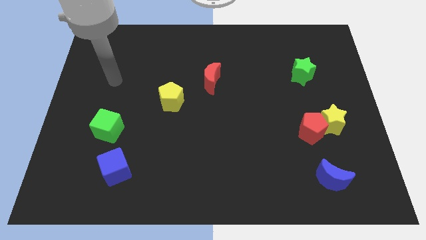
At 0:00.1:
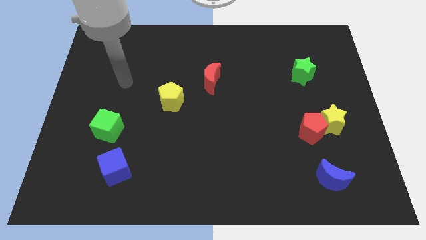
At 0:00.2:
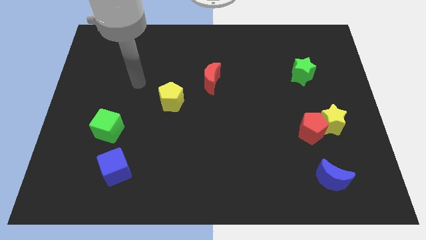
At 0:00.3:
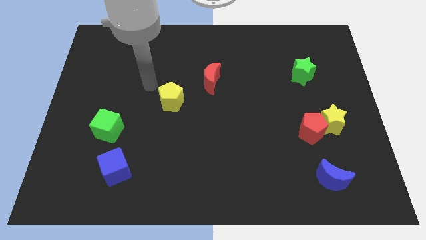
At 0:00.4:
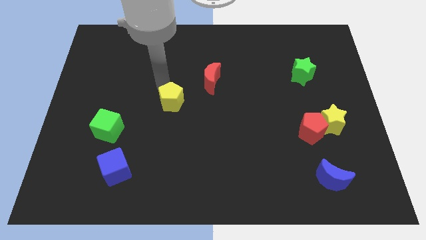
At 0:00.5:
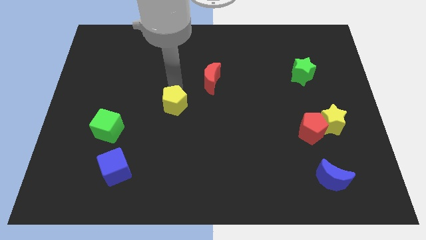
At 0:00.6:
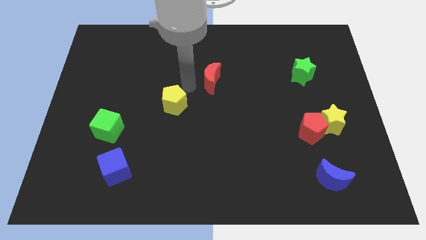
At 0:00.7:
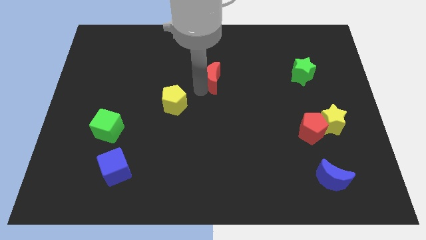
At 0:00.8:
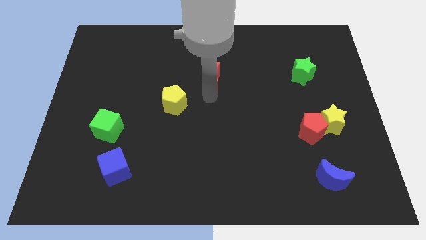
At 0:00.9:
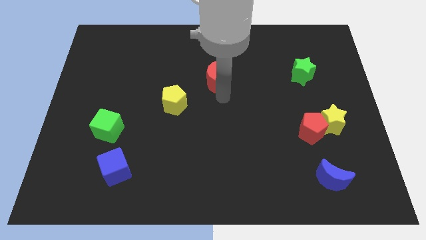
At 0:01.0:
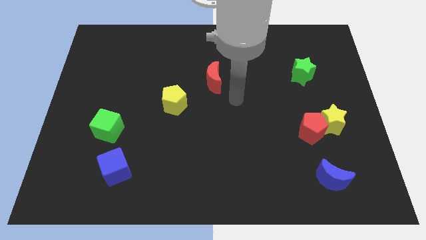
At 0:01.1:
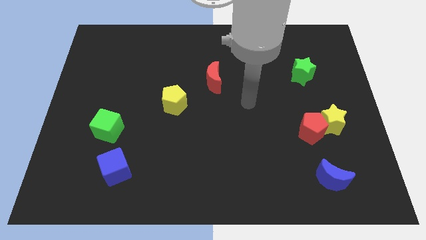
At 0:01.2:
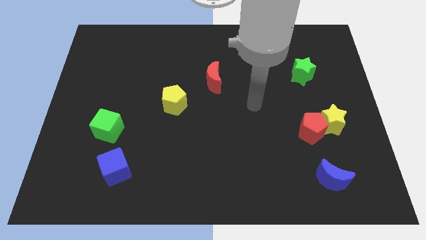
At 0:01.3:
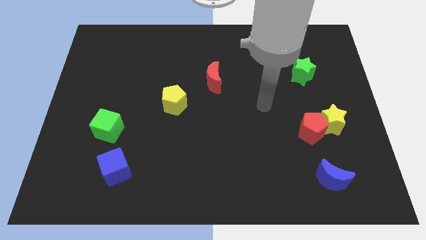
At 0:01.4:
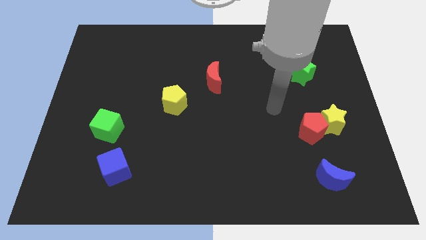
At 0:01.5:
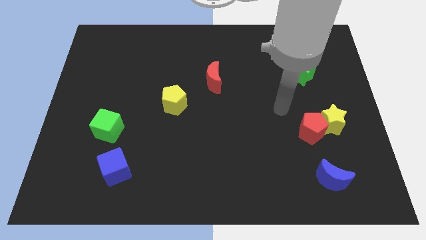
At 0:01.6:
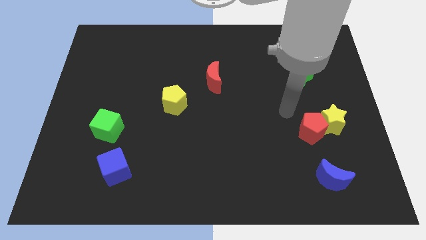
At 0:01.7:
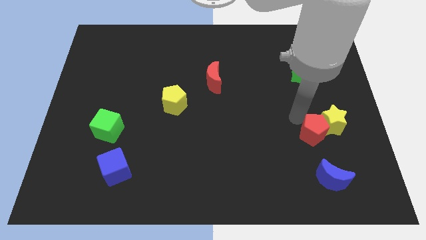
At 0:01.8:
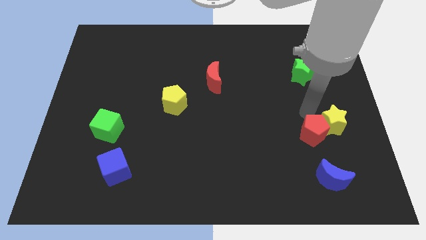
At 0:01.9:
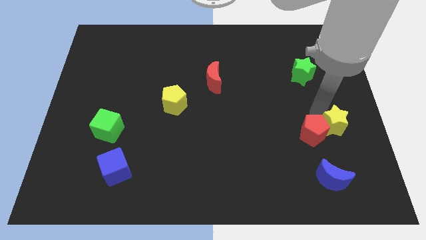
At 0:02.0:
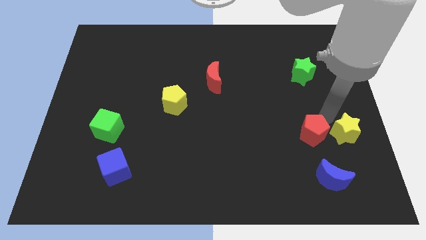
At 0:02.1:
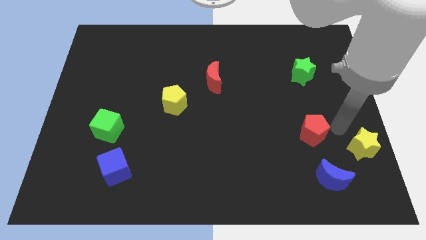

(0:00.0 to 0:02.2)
separate the red pentagon from the yellow star

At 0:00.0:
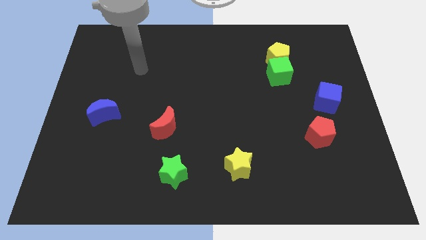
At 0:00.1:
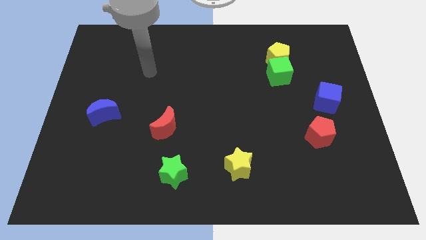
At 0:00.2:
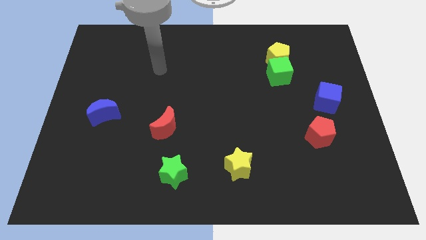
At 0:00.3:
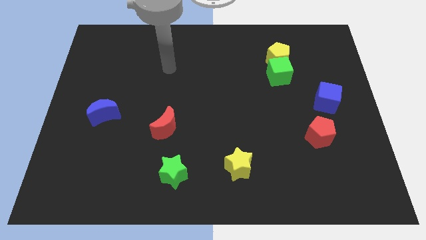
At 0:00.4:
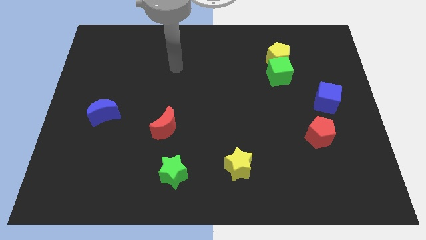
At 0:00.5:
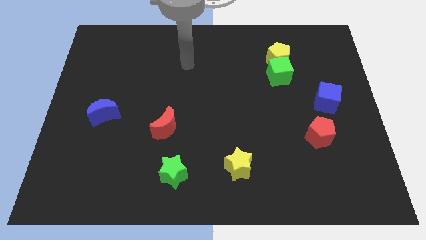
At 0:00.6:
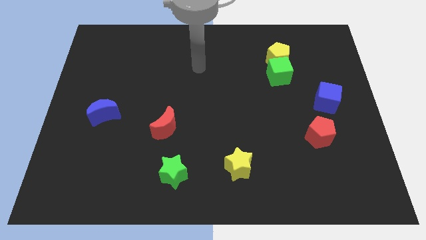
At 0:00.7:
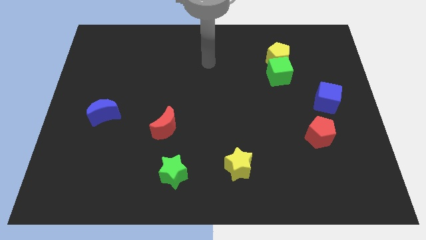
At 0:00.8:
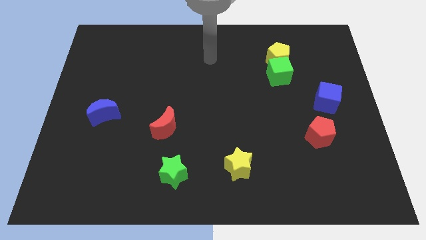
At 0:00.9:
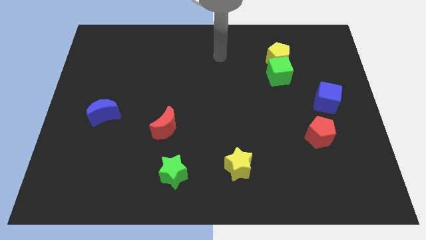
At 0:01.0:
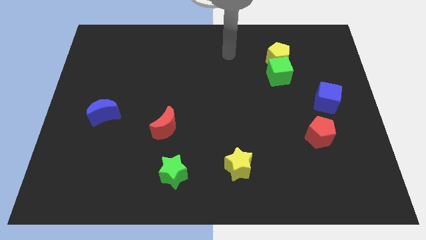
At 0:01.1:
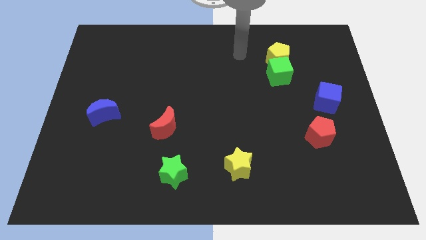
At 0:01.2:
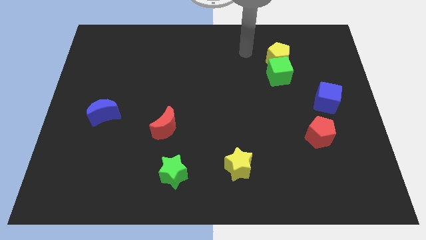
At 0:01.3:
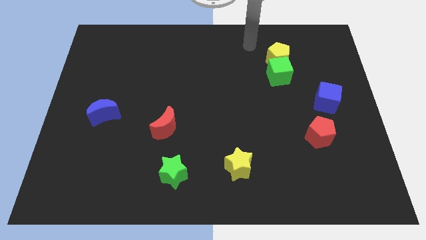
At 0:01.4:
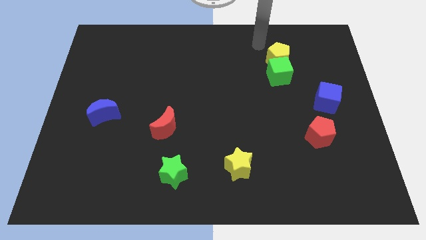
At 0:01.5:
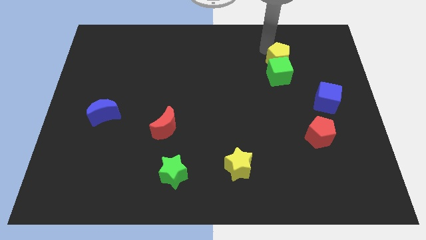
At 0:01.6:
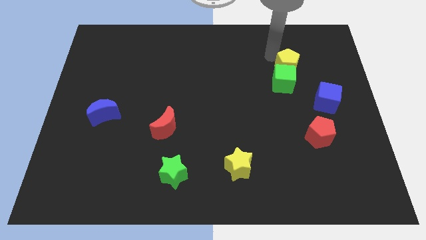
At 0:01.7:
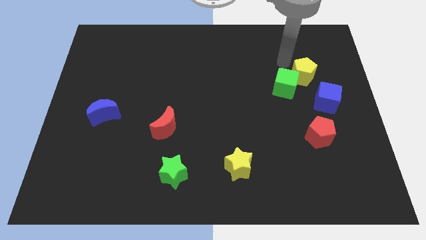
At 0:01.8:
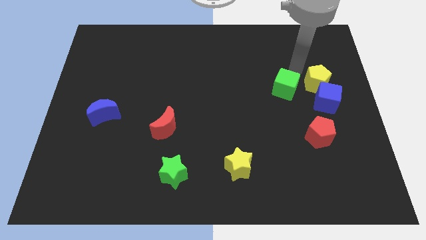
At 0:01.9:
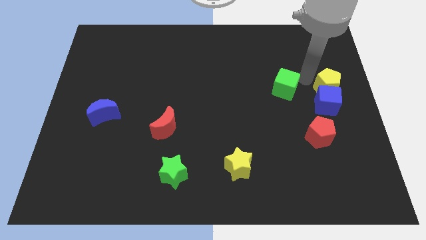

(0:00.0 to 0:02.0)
move the green cube away from the yellow pentagon

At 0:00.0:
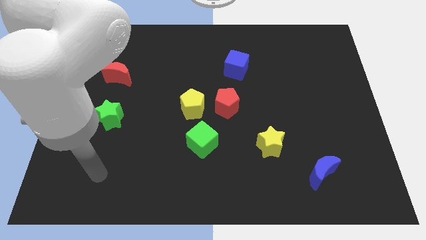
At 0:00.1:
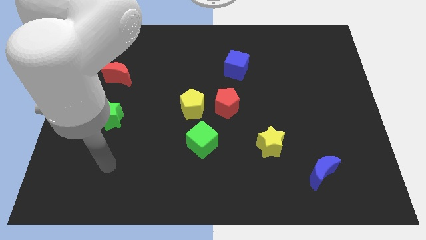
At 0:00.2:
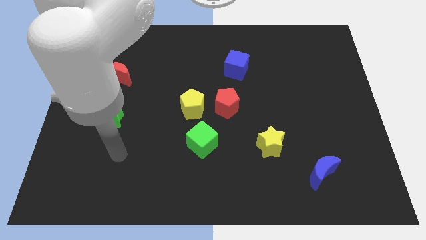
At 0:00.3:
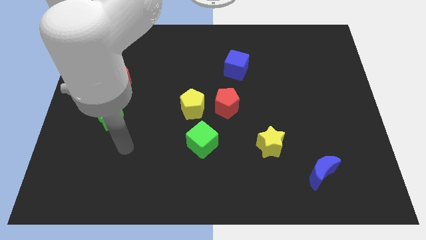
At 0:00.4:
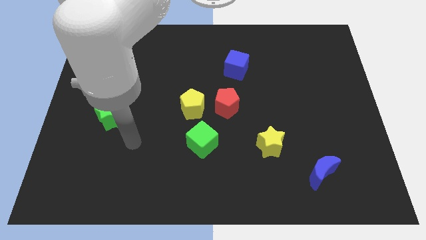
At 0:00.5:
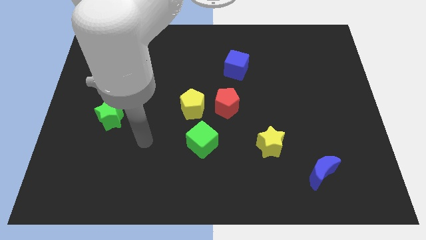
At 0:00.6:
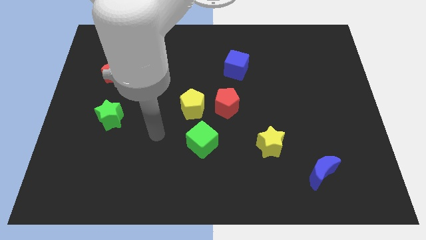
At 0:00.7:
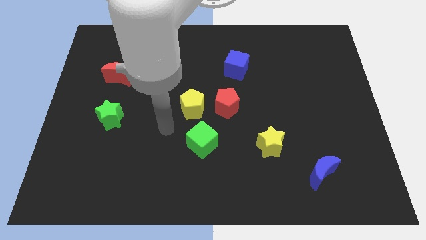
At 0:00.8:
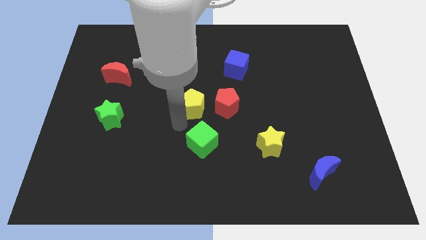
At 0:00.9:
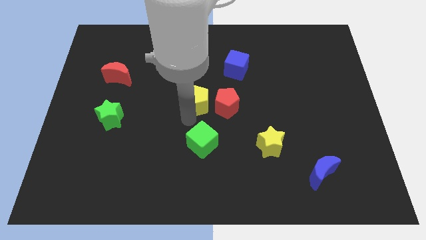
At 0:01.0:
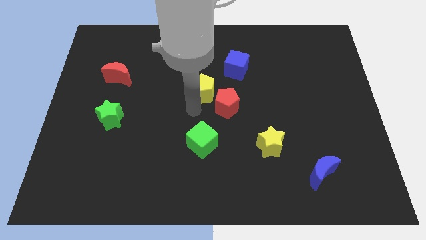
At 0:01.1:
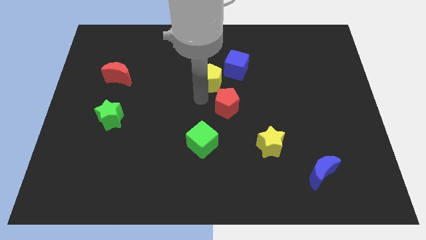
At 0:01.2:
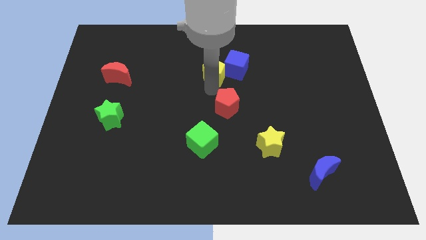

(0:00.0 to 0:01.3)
pull the red pentagon apart from the yellow pentagon

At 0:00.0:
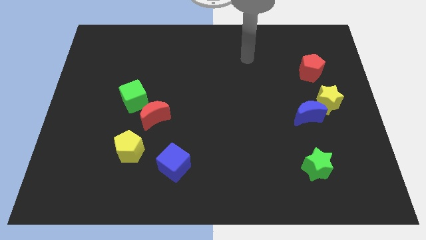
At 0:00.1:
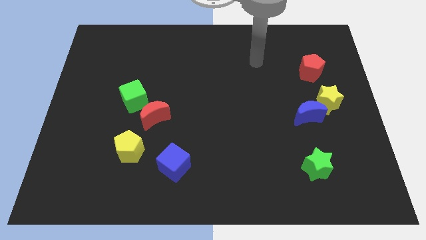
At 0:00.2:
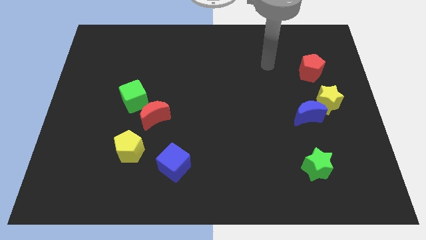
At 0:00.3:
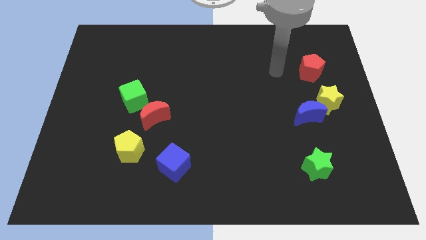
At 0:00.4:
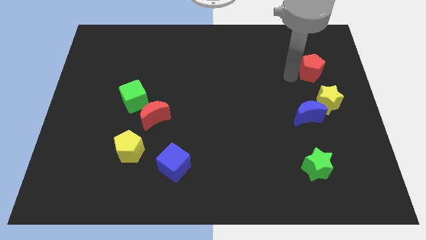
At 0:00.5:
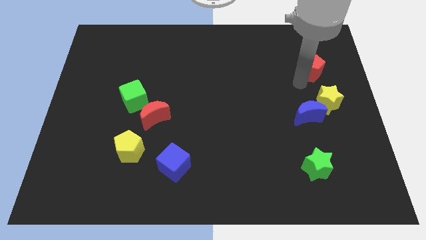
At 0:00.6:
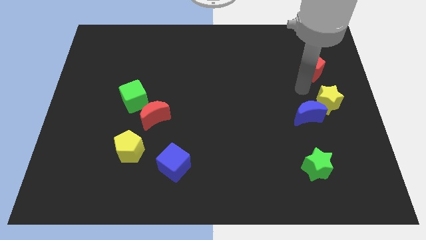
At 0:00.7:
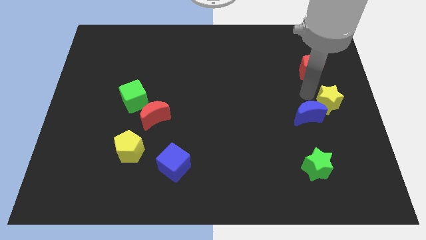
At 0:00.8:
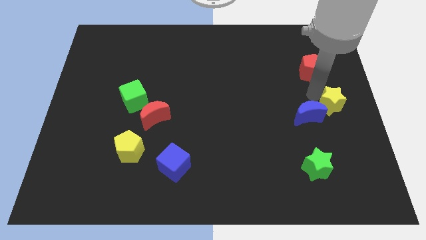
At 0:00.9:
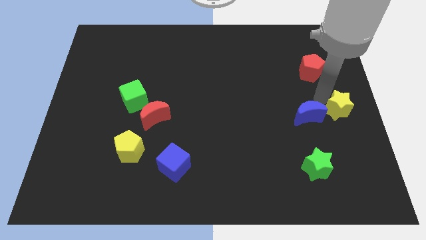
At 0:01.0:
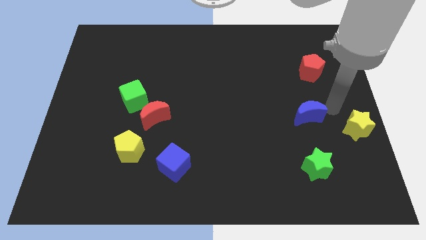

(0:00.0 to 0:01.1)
separate the blue moon from the yellow star

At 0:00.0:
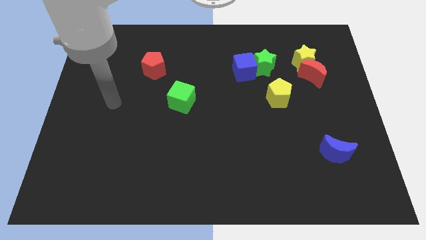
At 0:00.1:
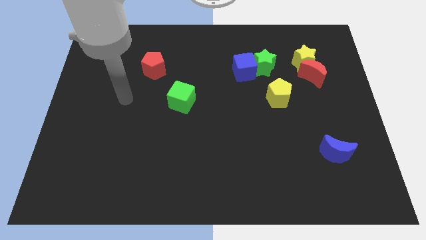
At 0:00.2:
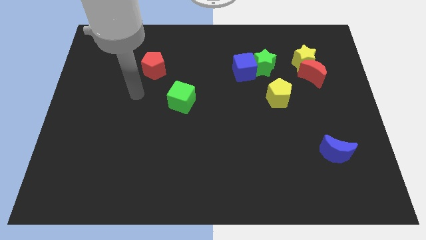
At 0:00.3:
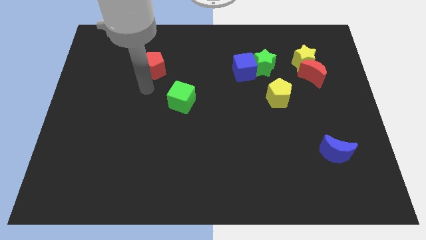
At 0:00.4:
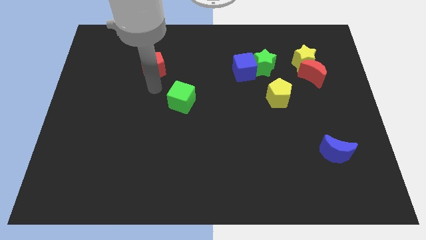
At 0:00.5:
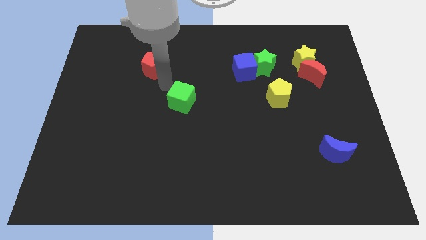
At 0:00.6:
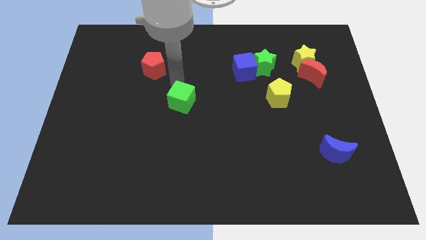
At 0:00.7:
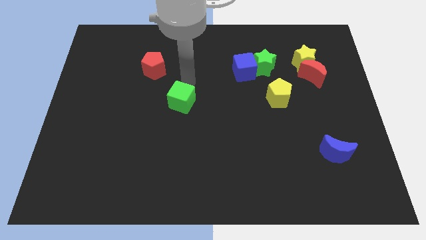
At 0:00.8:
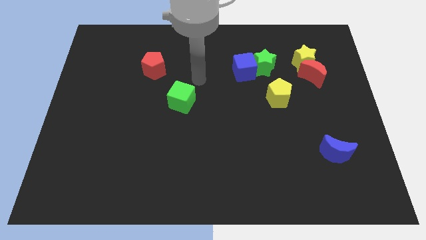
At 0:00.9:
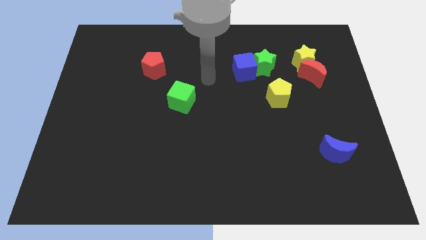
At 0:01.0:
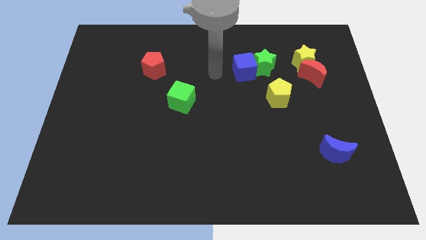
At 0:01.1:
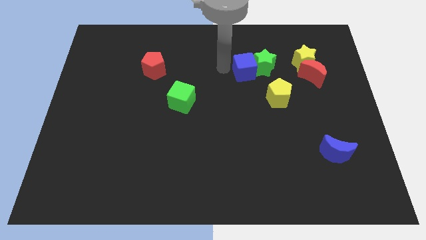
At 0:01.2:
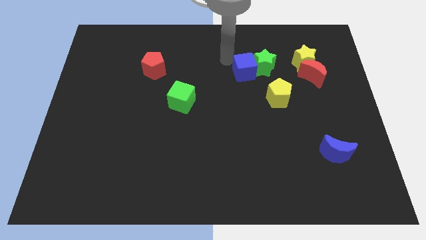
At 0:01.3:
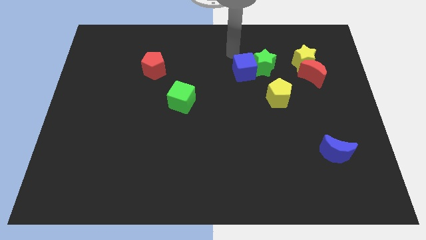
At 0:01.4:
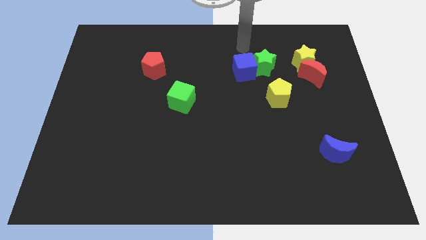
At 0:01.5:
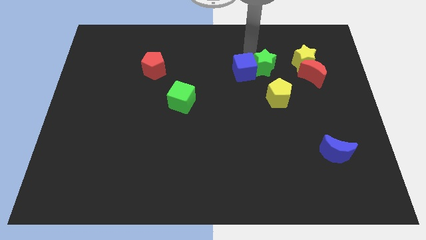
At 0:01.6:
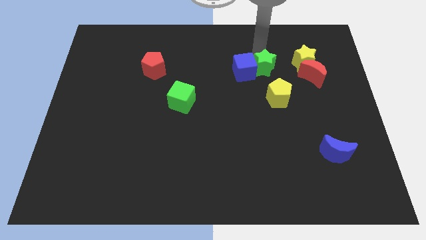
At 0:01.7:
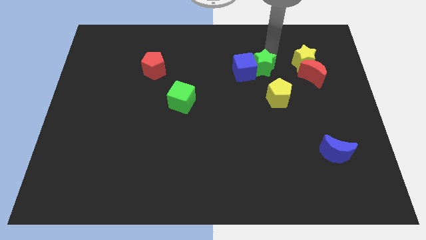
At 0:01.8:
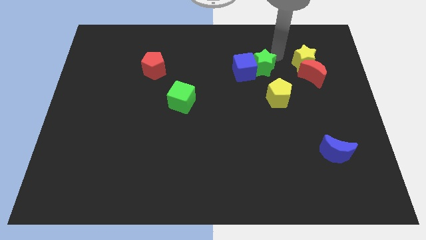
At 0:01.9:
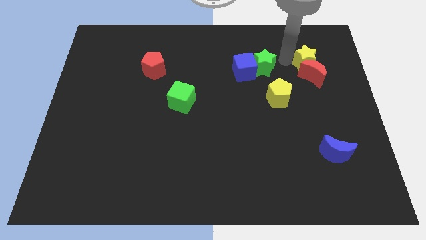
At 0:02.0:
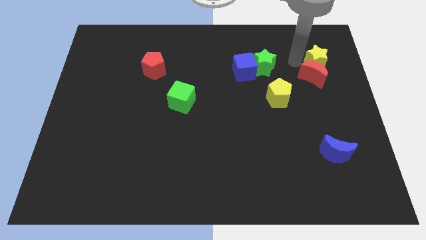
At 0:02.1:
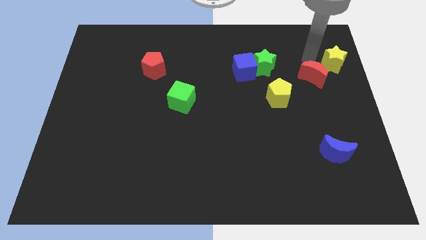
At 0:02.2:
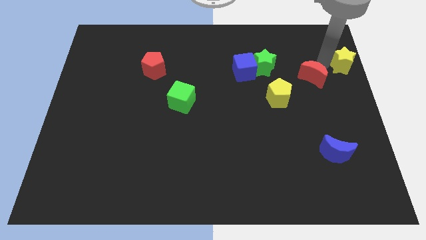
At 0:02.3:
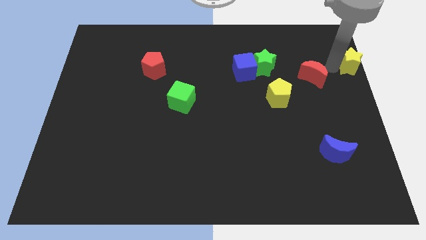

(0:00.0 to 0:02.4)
separate the red moon from the yellow star

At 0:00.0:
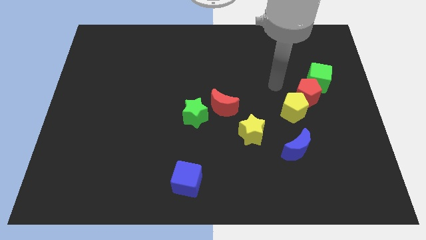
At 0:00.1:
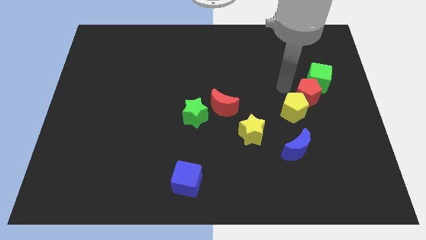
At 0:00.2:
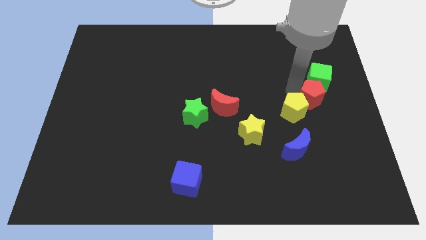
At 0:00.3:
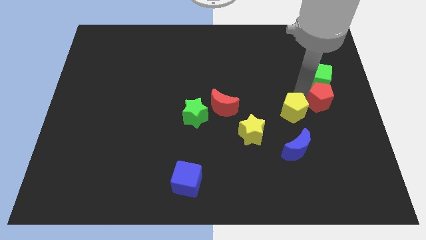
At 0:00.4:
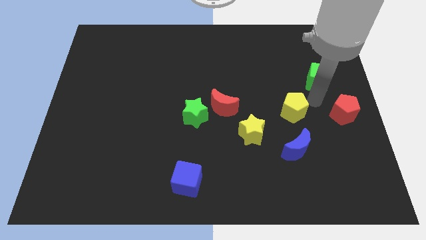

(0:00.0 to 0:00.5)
pull the yellow pentagon apart from the red pentagon
